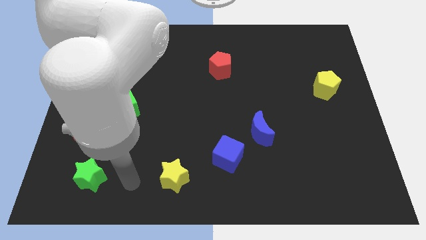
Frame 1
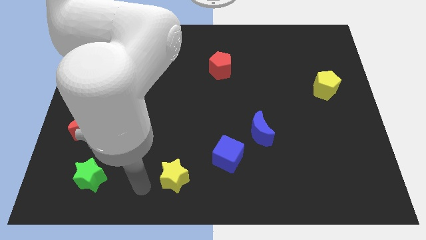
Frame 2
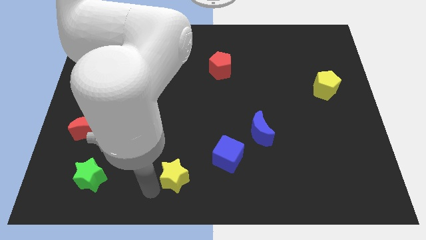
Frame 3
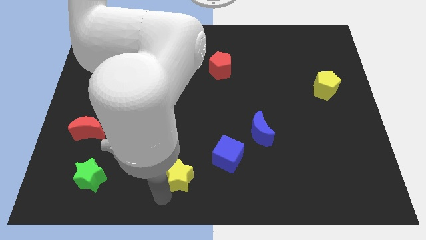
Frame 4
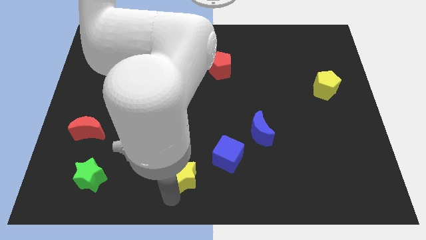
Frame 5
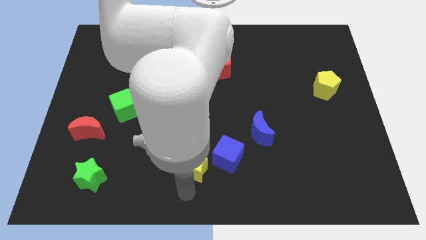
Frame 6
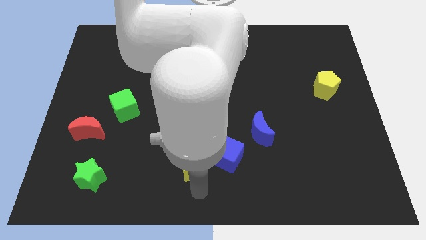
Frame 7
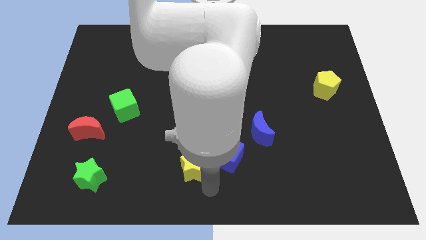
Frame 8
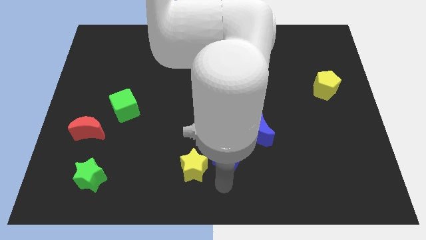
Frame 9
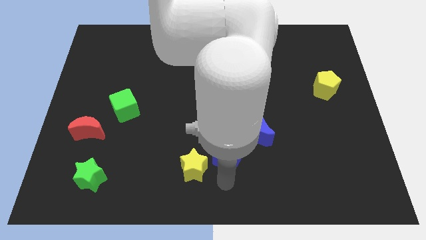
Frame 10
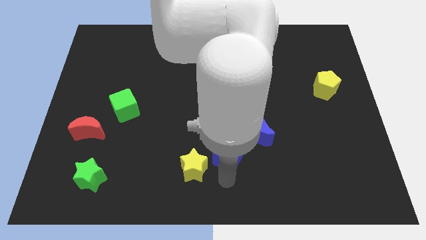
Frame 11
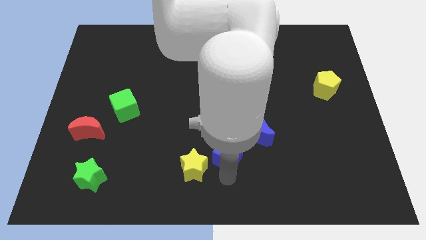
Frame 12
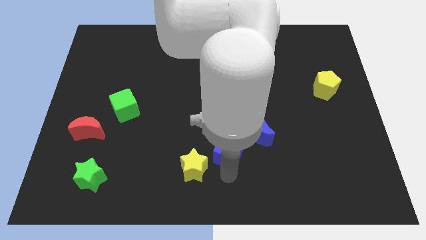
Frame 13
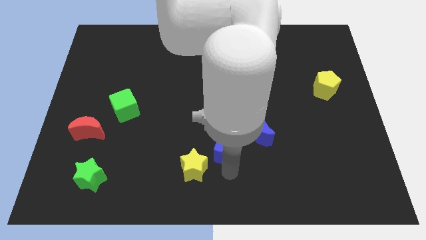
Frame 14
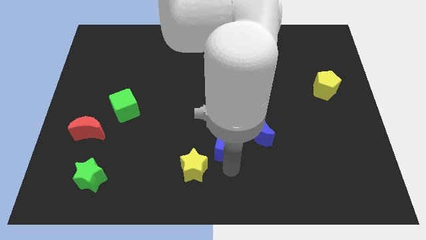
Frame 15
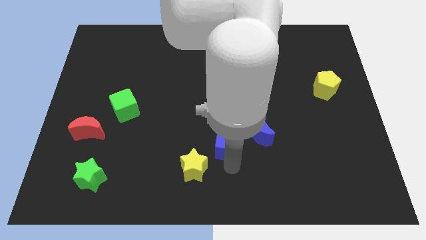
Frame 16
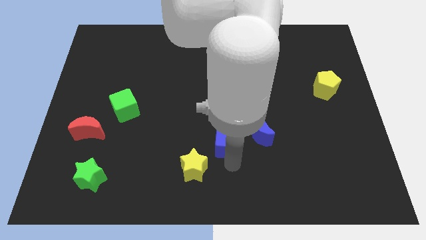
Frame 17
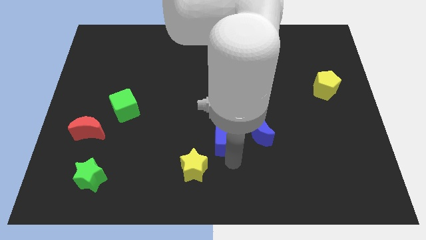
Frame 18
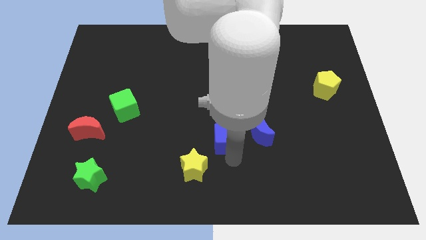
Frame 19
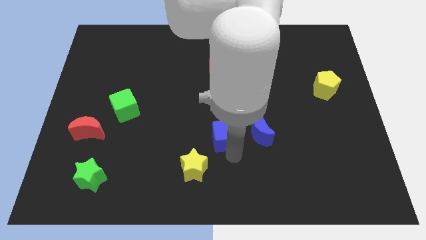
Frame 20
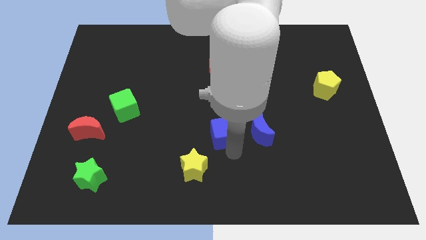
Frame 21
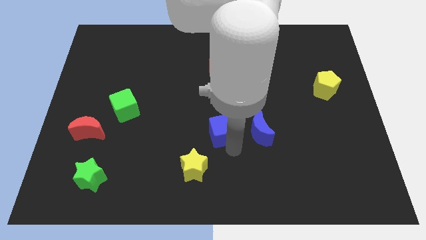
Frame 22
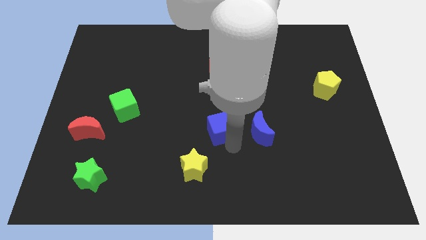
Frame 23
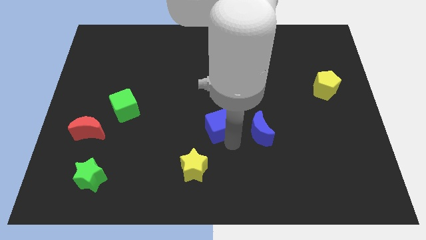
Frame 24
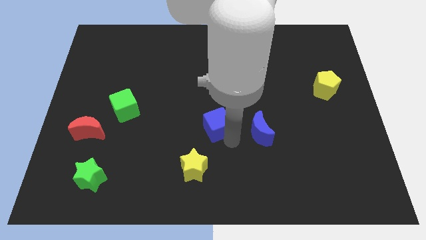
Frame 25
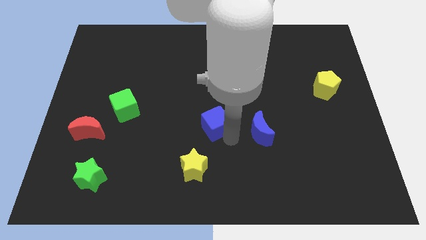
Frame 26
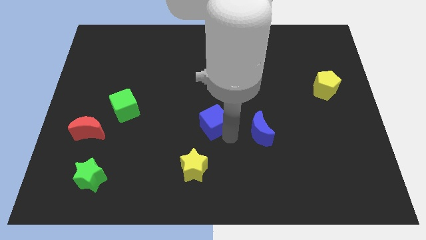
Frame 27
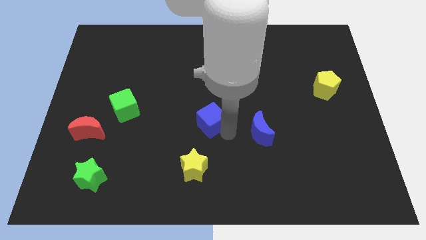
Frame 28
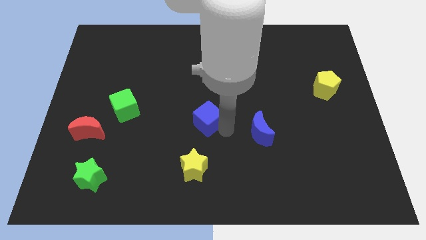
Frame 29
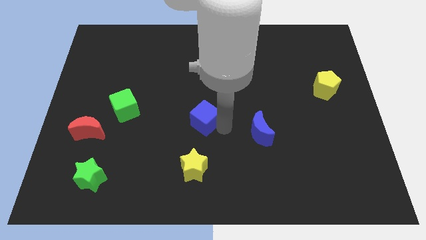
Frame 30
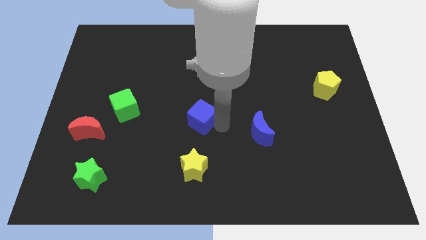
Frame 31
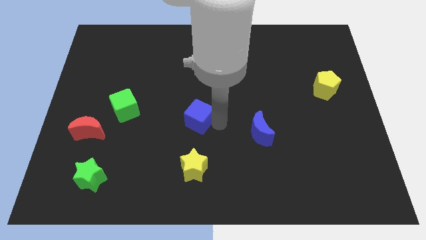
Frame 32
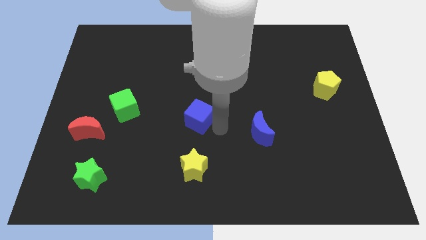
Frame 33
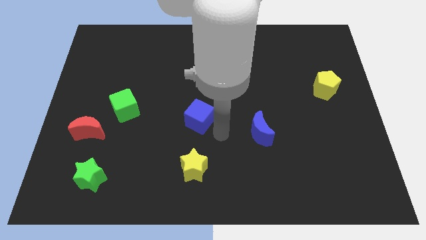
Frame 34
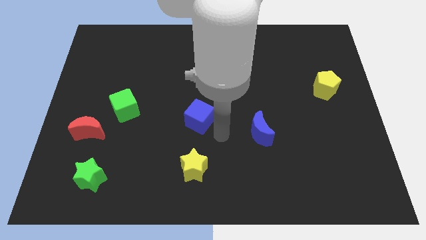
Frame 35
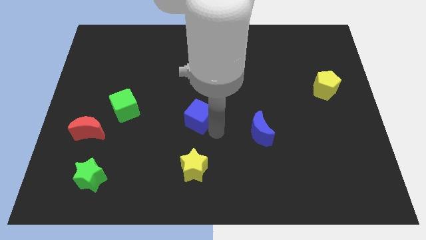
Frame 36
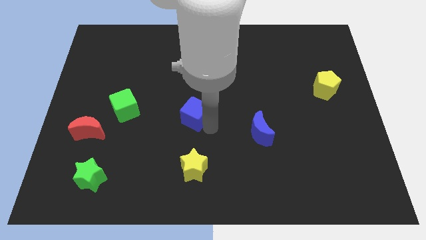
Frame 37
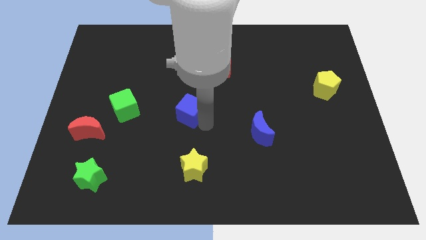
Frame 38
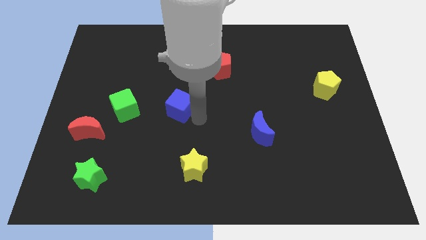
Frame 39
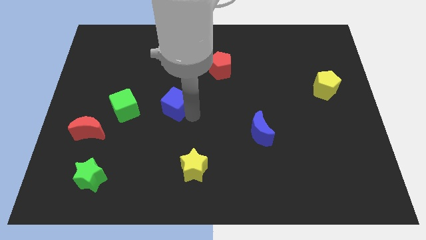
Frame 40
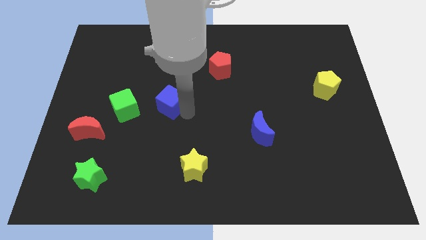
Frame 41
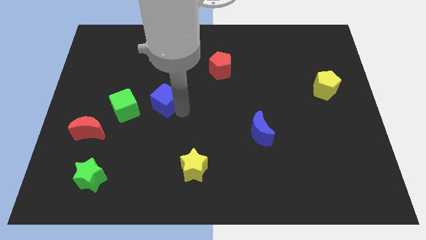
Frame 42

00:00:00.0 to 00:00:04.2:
move the blue cube upwards and to the left

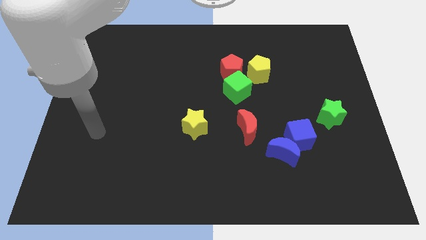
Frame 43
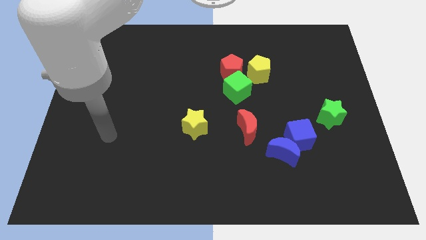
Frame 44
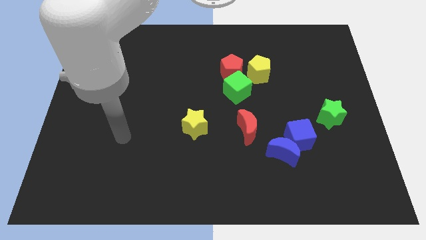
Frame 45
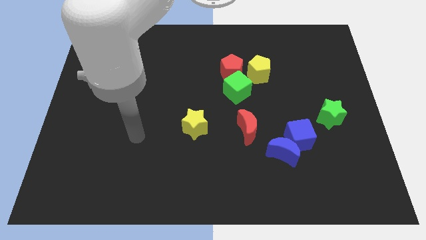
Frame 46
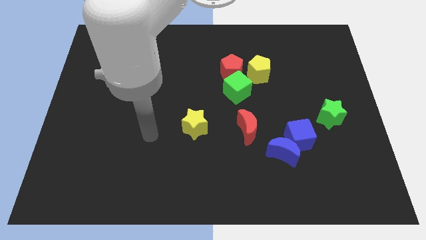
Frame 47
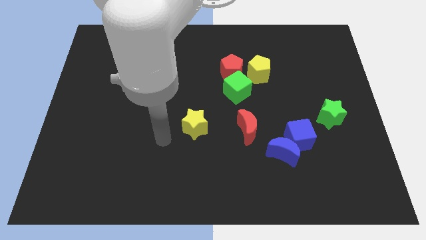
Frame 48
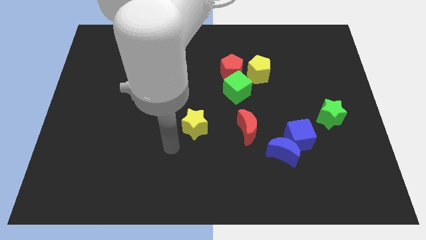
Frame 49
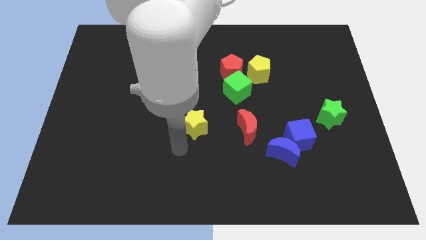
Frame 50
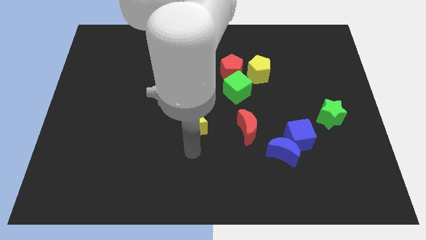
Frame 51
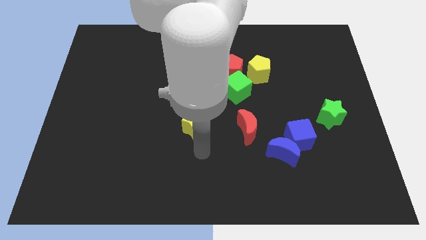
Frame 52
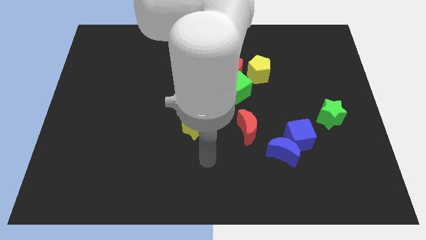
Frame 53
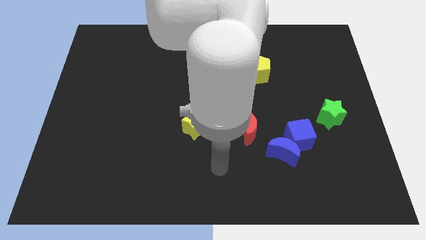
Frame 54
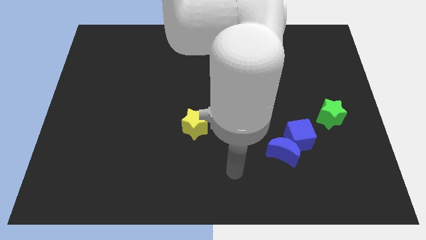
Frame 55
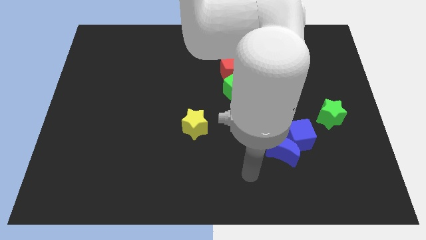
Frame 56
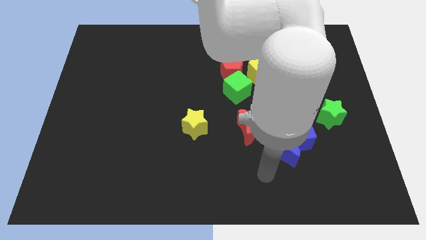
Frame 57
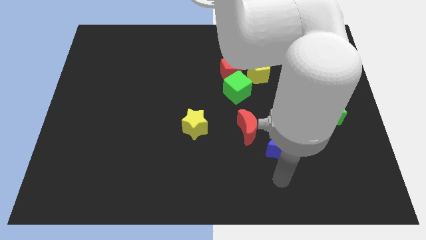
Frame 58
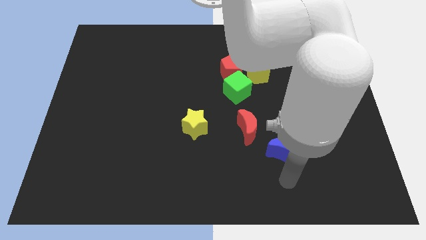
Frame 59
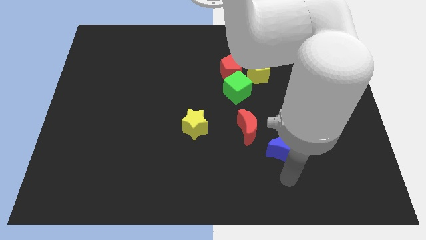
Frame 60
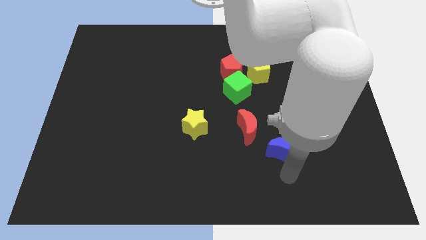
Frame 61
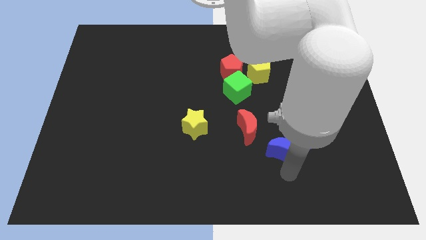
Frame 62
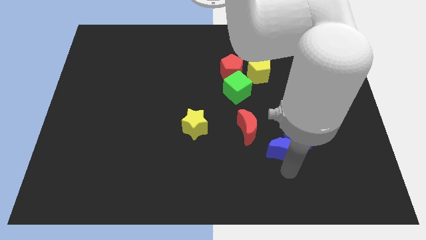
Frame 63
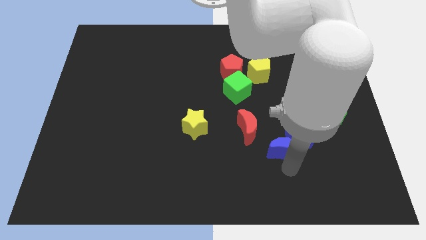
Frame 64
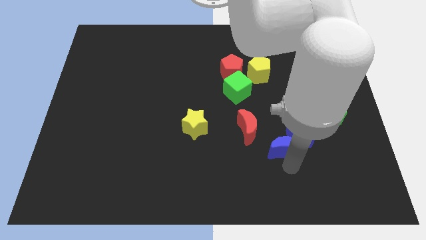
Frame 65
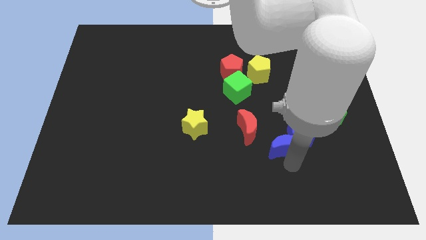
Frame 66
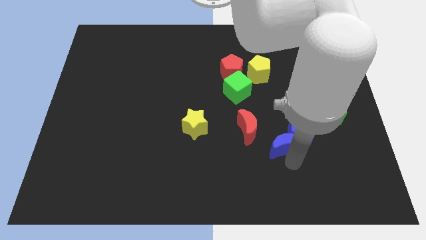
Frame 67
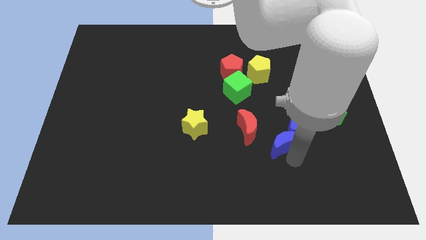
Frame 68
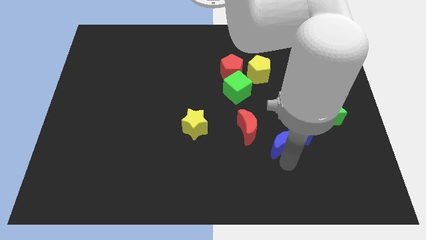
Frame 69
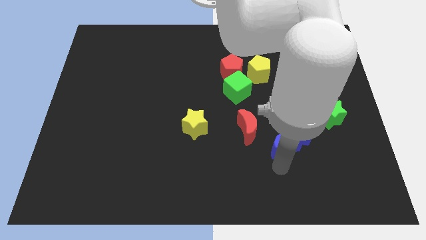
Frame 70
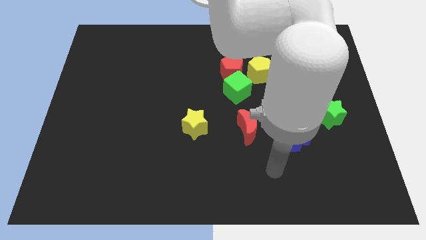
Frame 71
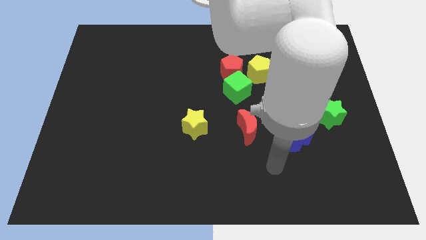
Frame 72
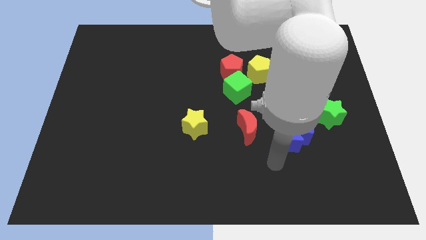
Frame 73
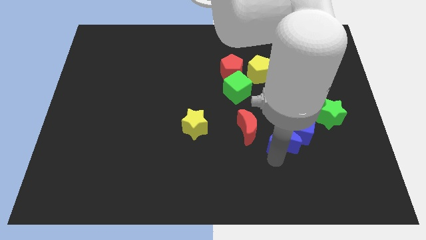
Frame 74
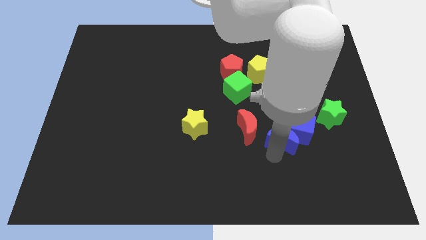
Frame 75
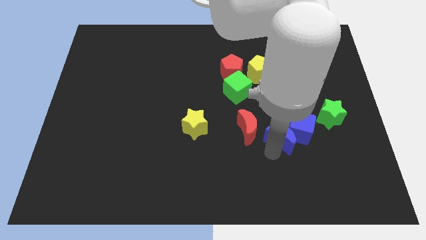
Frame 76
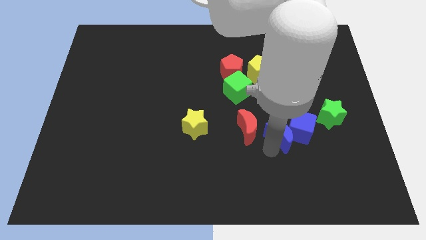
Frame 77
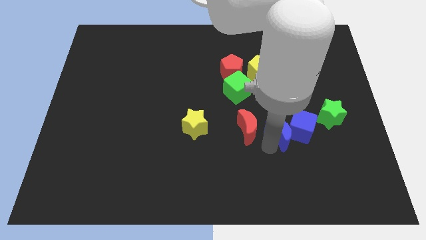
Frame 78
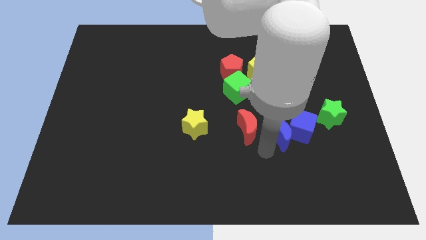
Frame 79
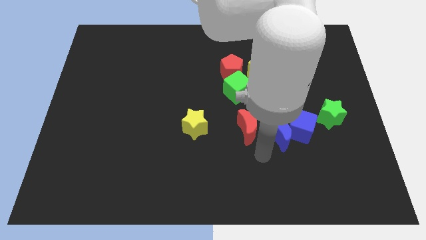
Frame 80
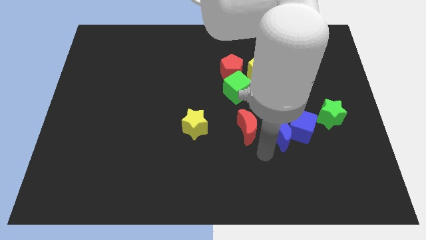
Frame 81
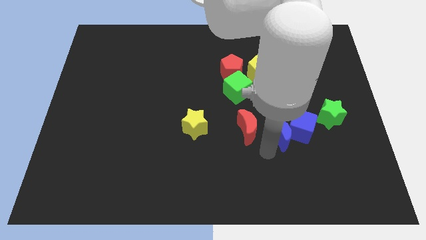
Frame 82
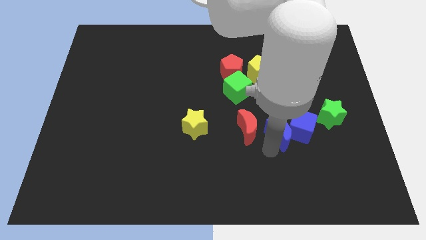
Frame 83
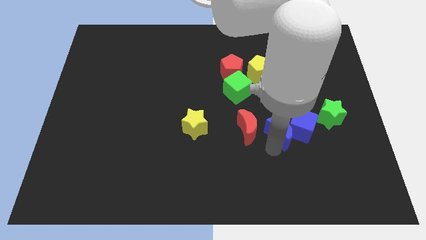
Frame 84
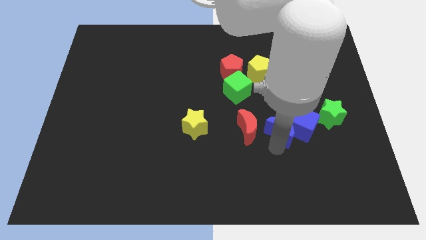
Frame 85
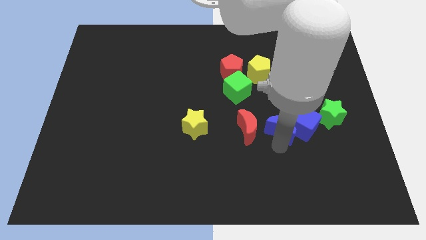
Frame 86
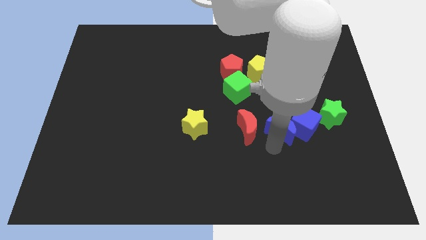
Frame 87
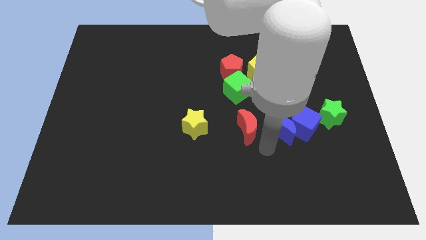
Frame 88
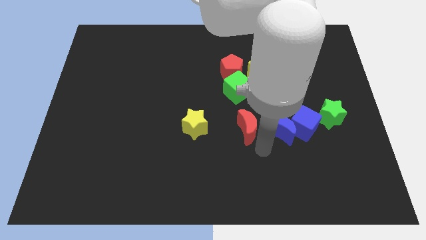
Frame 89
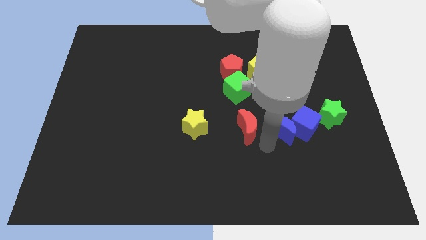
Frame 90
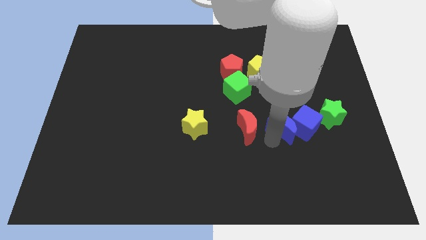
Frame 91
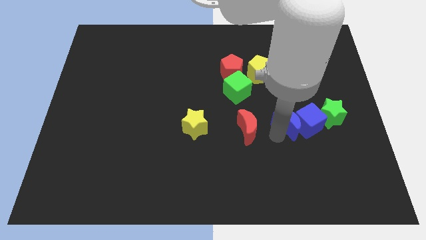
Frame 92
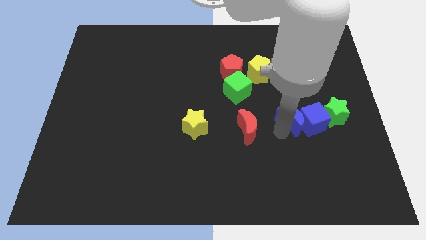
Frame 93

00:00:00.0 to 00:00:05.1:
slightly push the blue moon diagonally up and to the right
